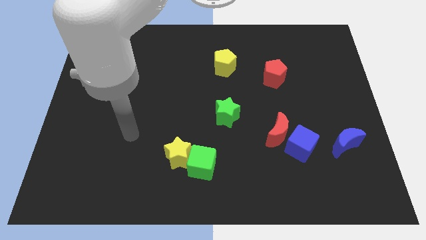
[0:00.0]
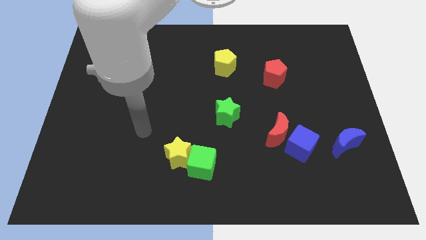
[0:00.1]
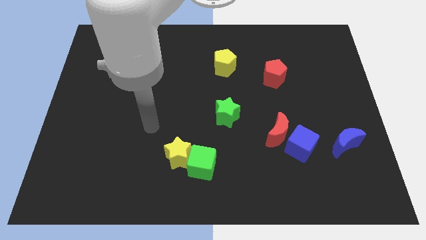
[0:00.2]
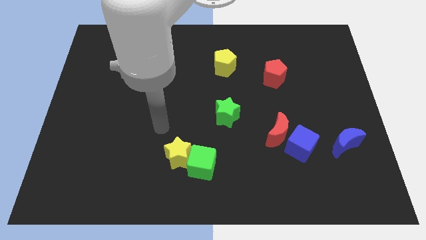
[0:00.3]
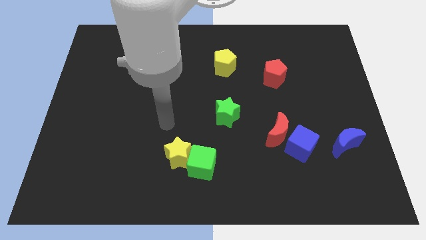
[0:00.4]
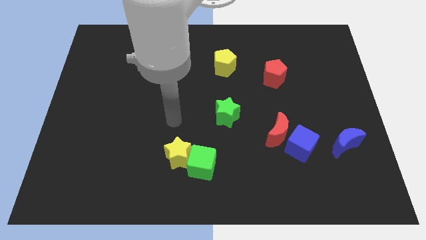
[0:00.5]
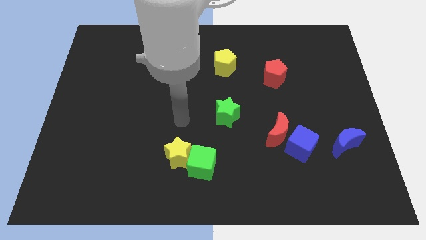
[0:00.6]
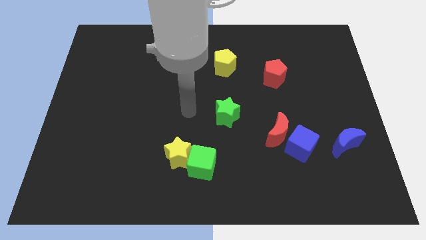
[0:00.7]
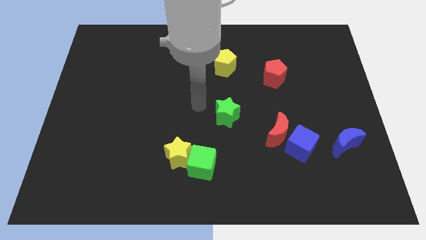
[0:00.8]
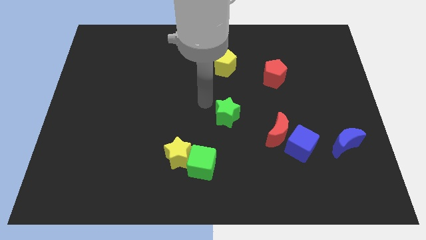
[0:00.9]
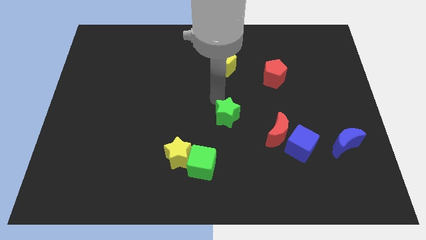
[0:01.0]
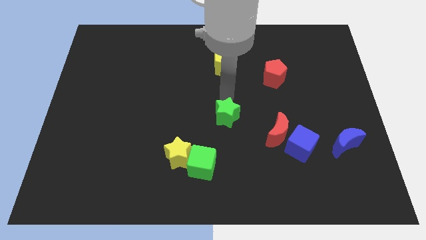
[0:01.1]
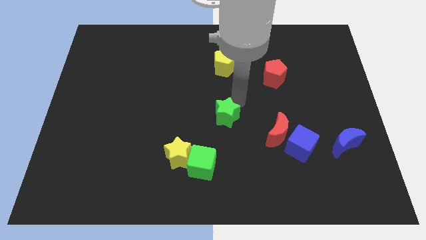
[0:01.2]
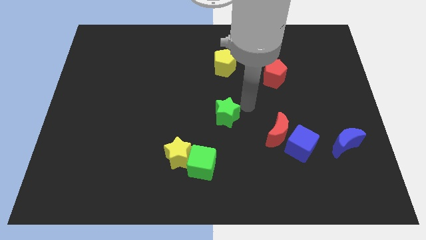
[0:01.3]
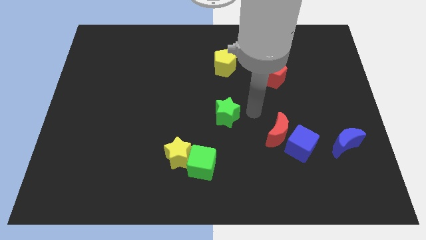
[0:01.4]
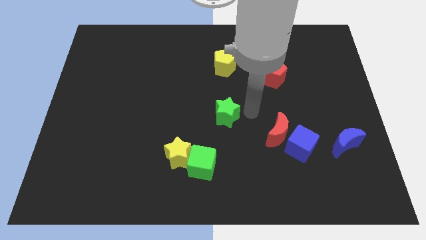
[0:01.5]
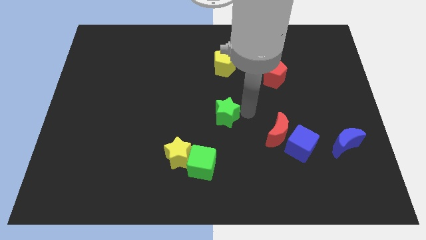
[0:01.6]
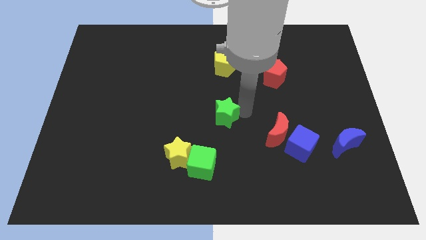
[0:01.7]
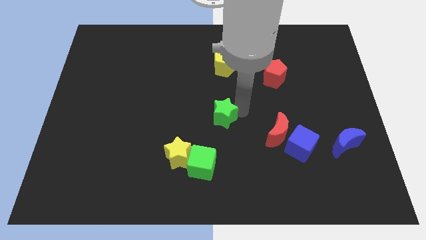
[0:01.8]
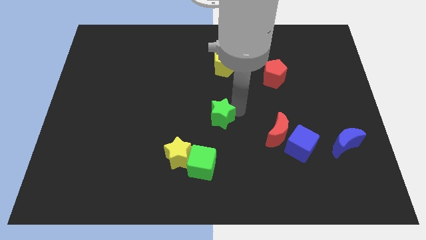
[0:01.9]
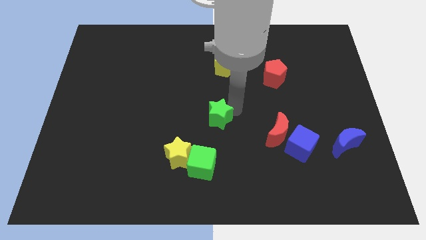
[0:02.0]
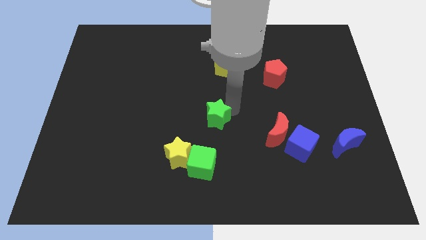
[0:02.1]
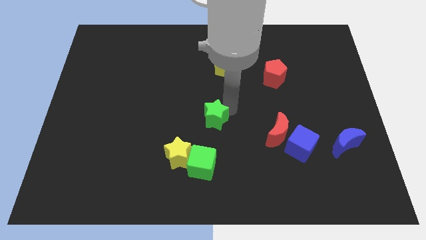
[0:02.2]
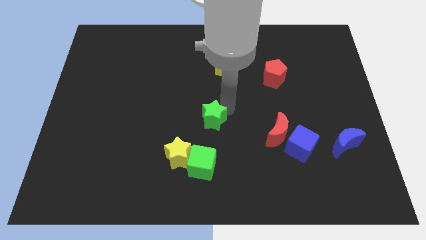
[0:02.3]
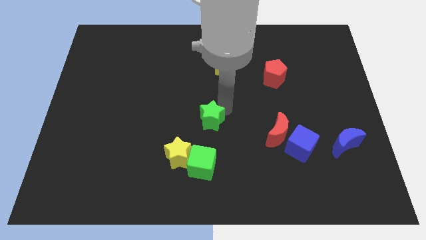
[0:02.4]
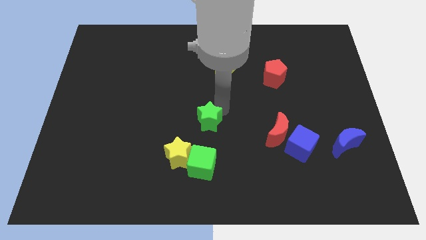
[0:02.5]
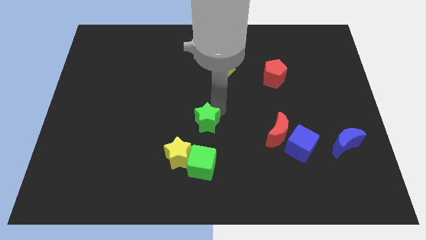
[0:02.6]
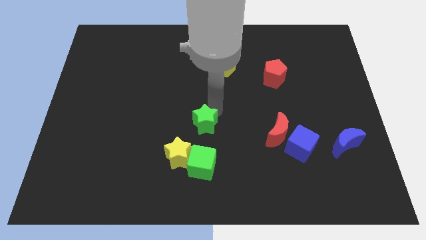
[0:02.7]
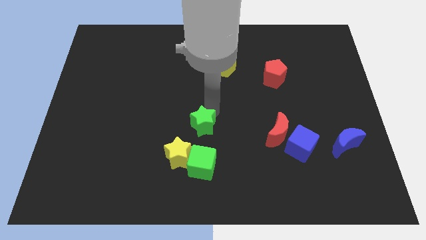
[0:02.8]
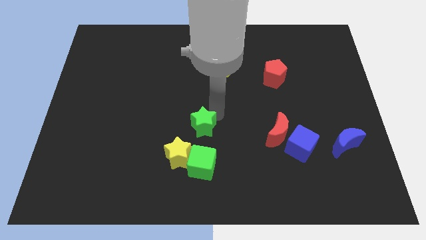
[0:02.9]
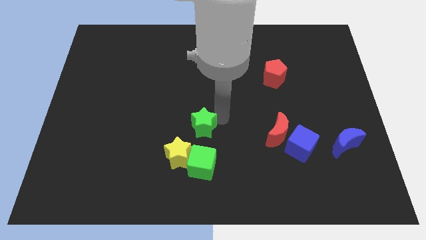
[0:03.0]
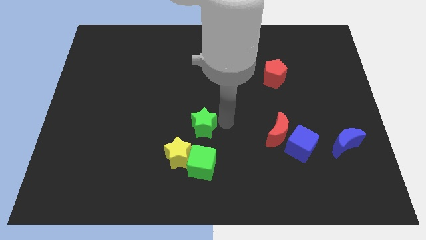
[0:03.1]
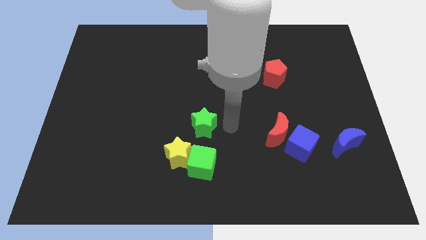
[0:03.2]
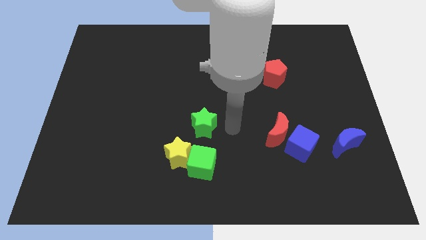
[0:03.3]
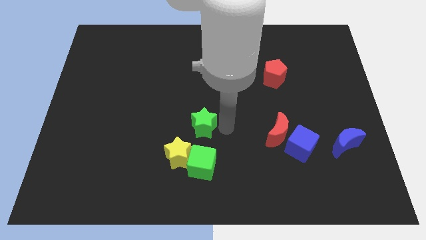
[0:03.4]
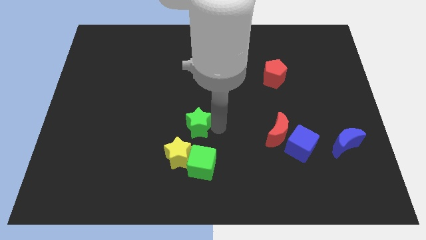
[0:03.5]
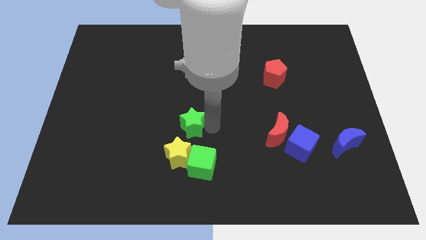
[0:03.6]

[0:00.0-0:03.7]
move the green star diagonally down and to the left somewhat

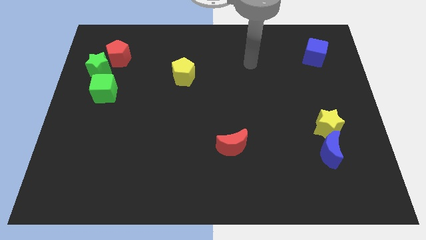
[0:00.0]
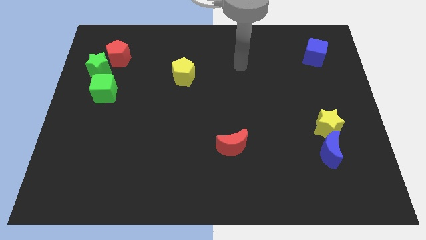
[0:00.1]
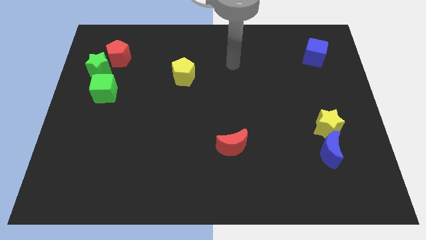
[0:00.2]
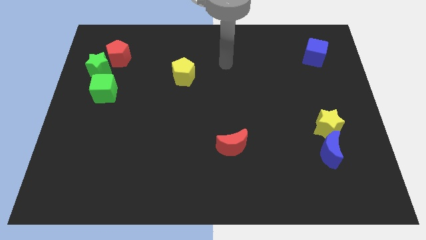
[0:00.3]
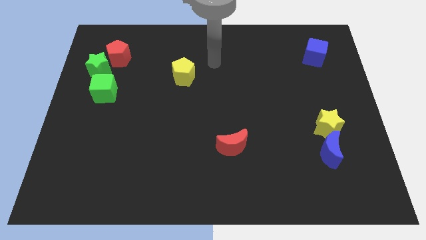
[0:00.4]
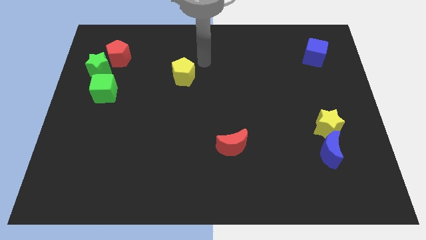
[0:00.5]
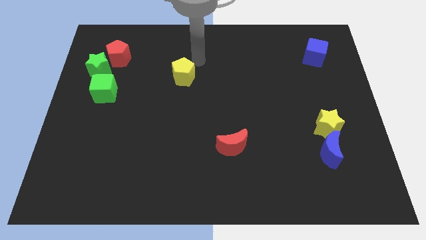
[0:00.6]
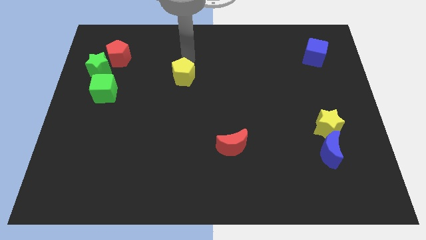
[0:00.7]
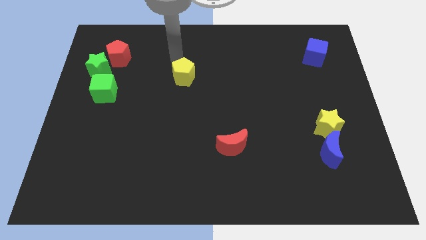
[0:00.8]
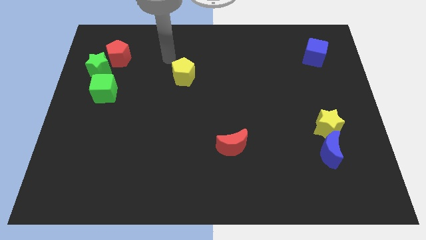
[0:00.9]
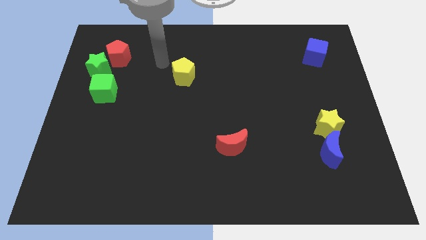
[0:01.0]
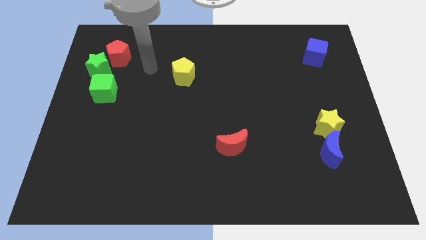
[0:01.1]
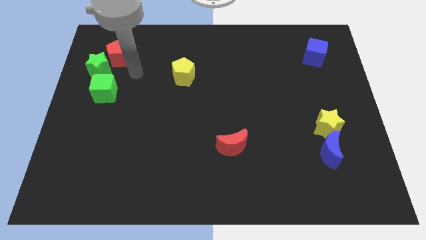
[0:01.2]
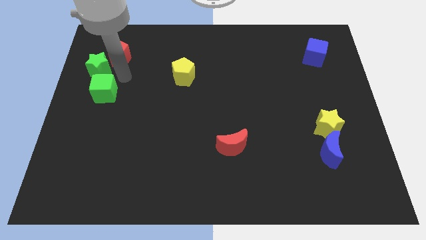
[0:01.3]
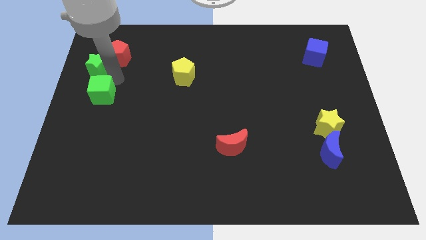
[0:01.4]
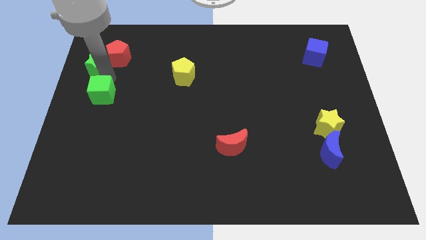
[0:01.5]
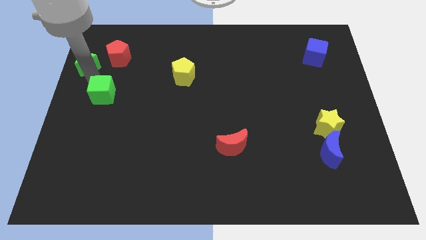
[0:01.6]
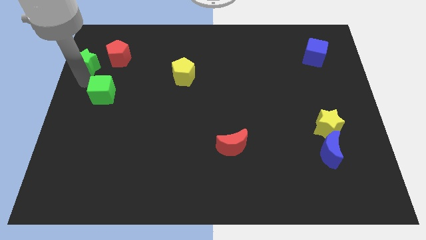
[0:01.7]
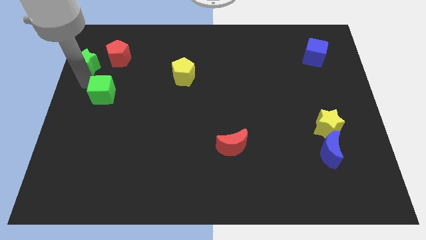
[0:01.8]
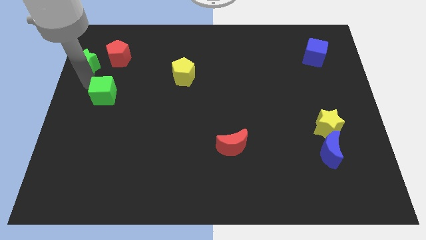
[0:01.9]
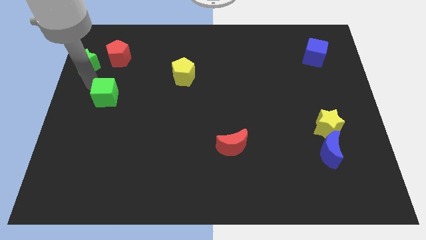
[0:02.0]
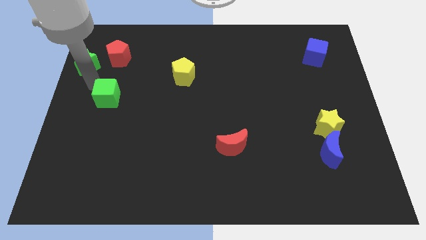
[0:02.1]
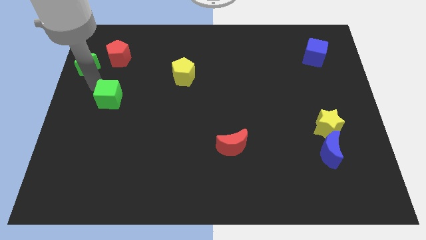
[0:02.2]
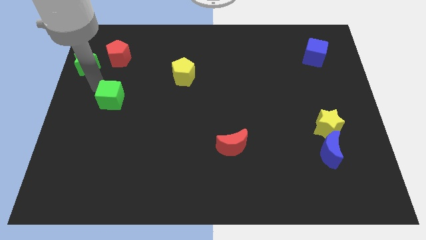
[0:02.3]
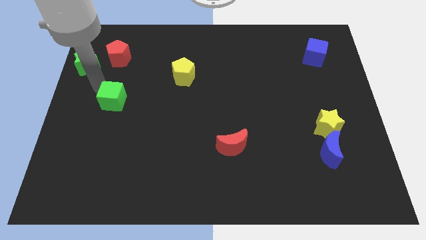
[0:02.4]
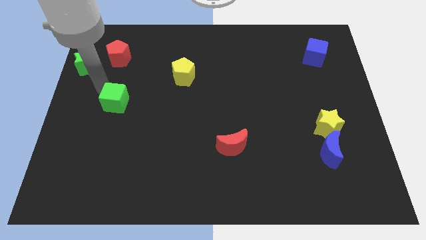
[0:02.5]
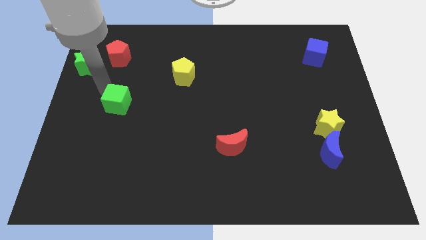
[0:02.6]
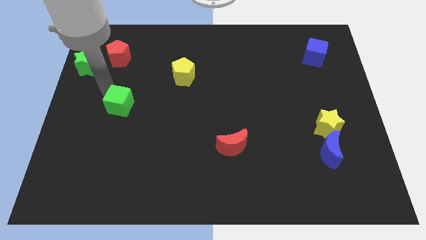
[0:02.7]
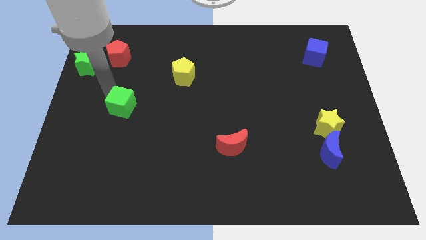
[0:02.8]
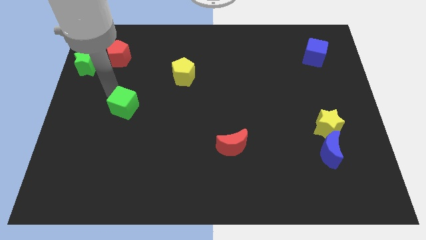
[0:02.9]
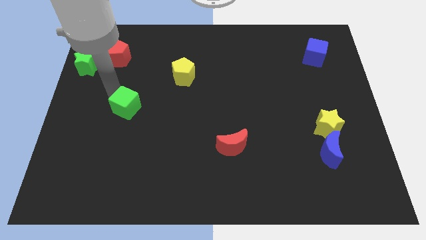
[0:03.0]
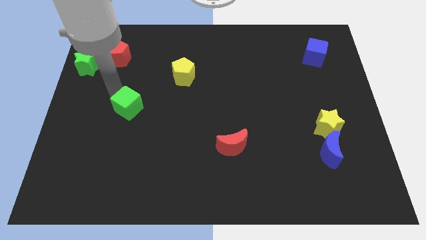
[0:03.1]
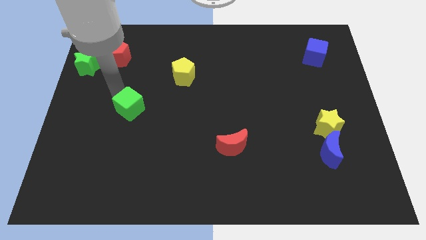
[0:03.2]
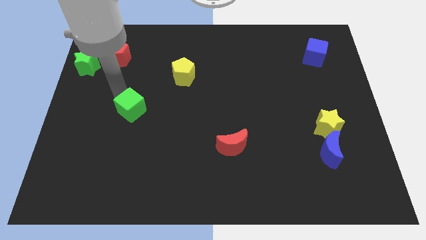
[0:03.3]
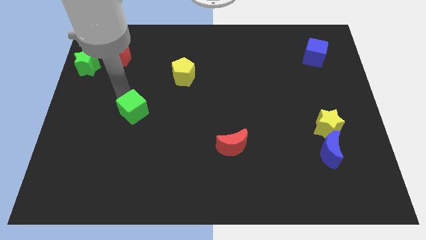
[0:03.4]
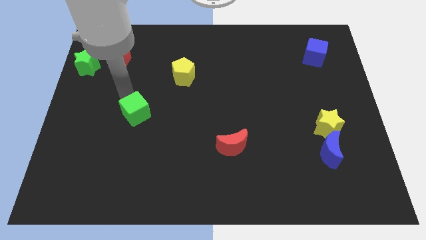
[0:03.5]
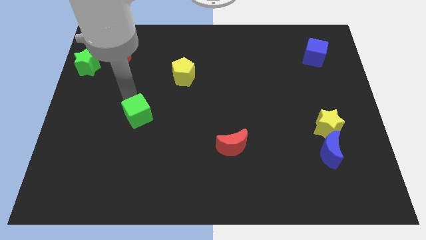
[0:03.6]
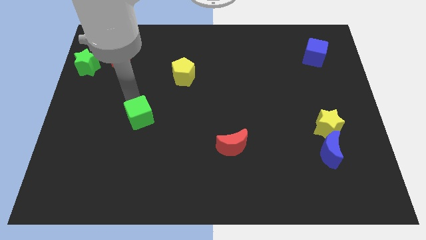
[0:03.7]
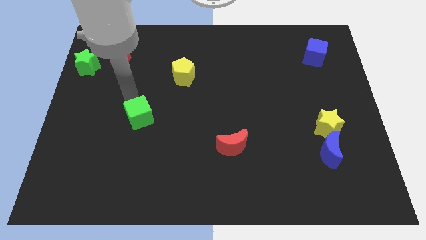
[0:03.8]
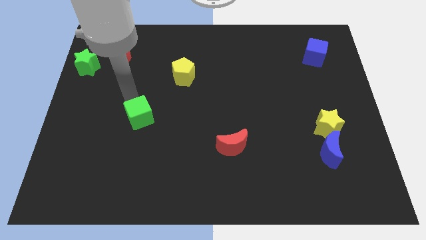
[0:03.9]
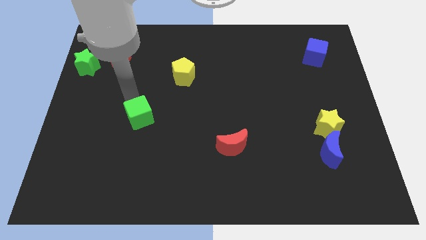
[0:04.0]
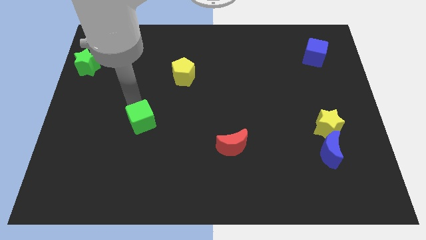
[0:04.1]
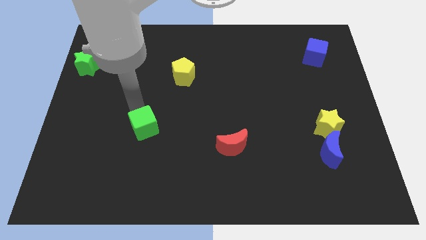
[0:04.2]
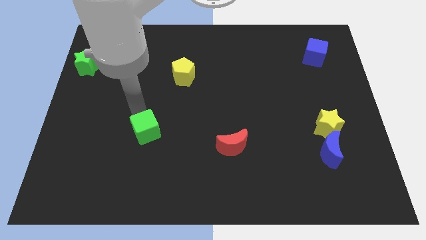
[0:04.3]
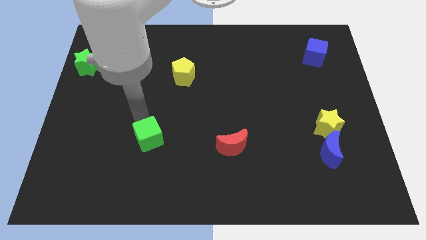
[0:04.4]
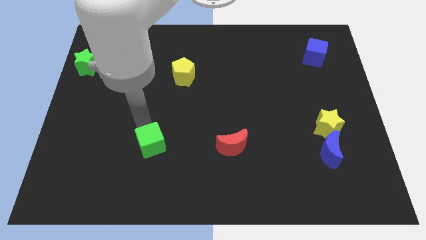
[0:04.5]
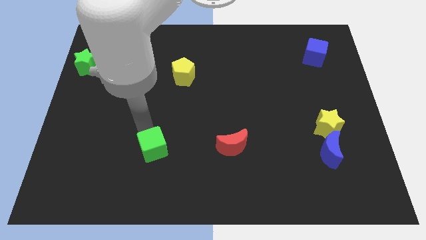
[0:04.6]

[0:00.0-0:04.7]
slide the green cube diagonally down and right
